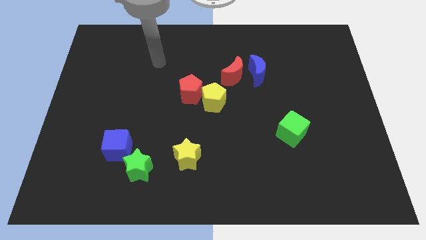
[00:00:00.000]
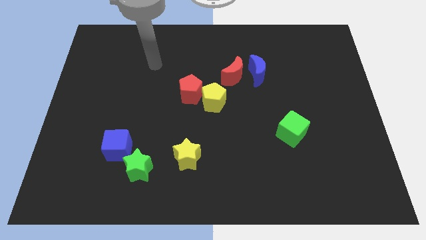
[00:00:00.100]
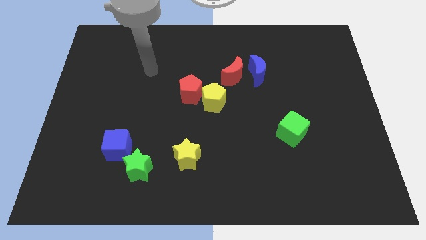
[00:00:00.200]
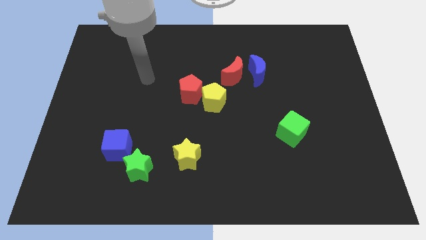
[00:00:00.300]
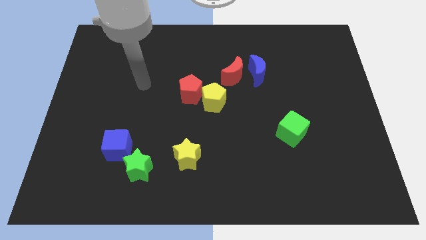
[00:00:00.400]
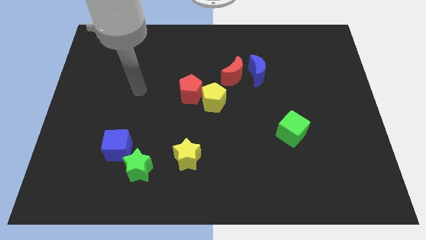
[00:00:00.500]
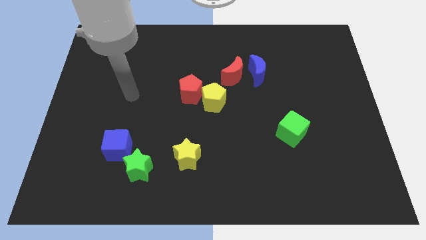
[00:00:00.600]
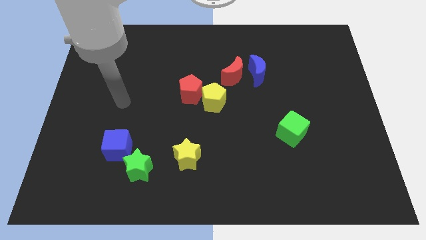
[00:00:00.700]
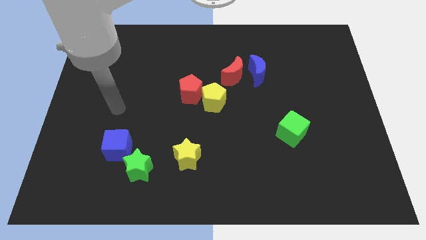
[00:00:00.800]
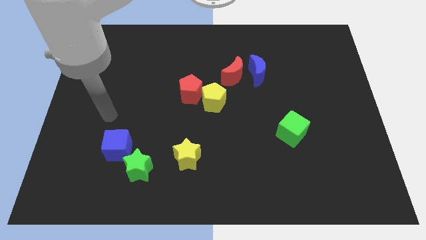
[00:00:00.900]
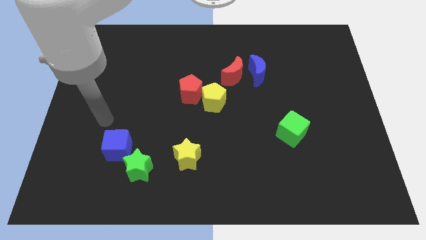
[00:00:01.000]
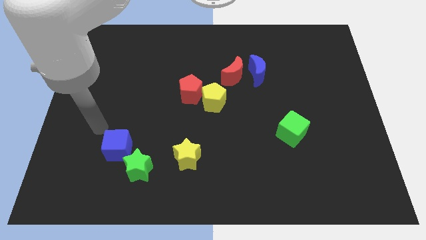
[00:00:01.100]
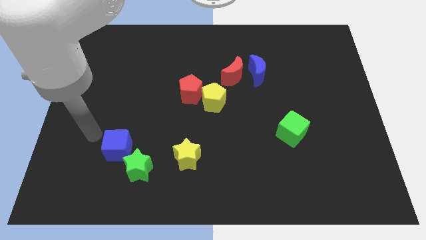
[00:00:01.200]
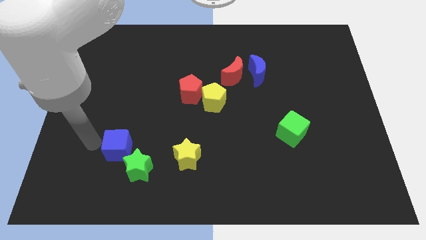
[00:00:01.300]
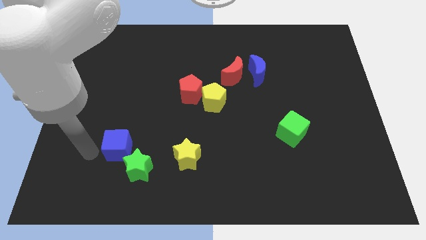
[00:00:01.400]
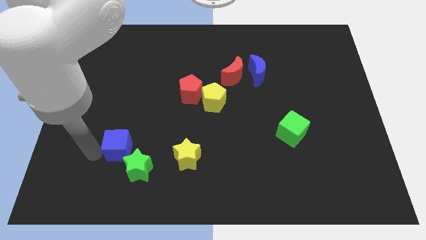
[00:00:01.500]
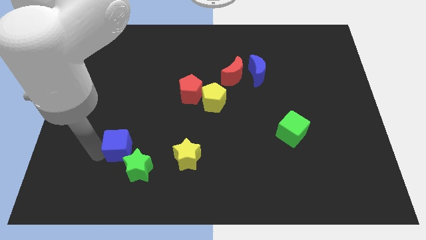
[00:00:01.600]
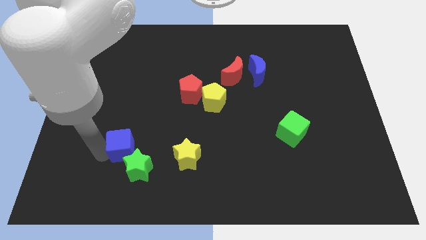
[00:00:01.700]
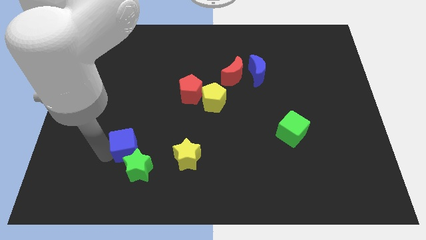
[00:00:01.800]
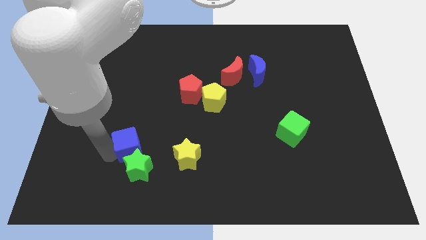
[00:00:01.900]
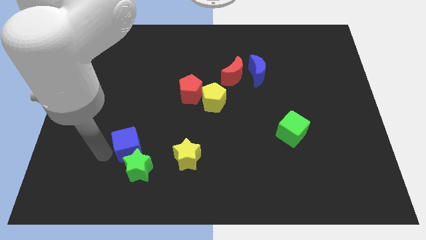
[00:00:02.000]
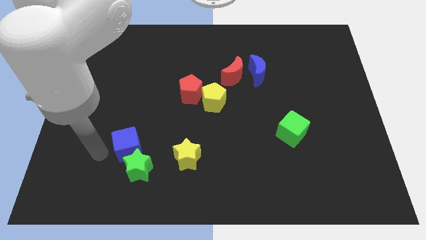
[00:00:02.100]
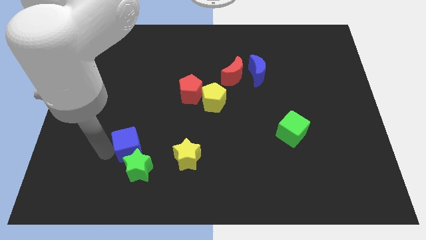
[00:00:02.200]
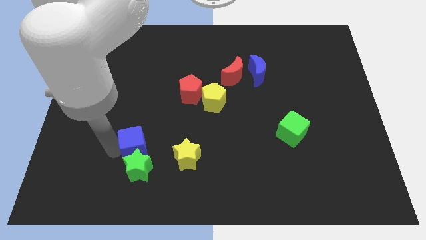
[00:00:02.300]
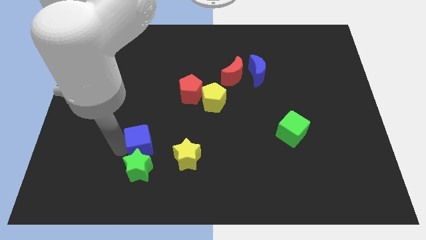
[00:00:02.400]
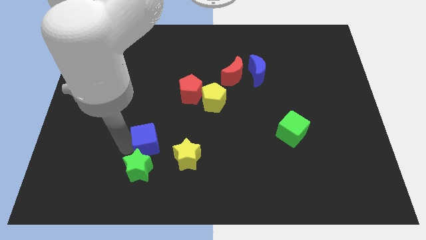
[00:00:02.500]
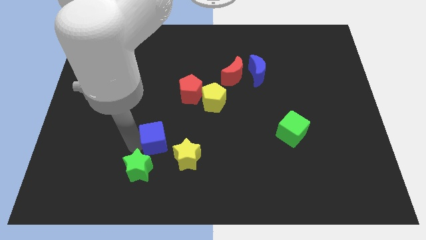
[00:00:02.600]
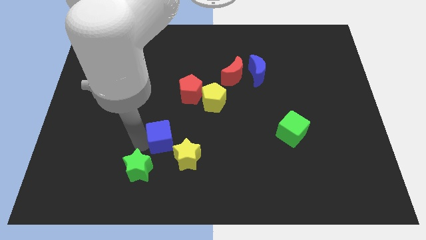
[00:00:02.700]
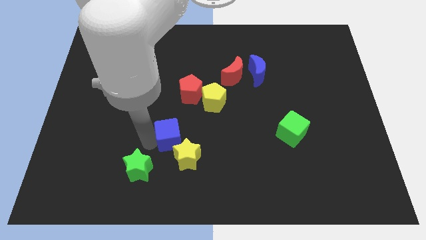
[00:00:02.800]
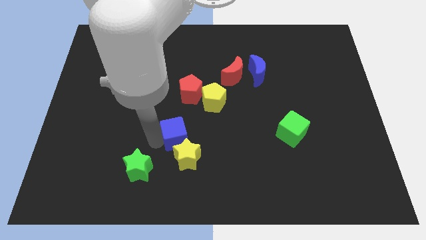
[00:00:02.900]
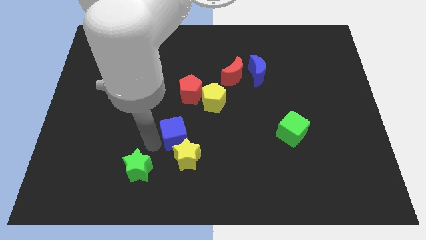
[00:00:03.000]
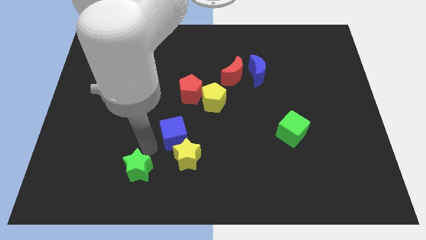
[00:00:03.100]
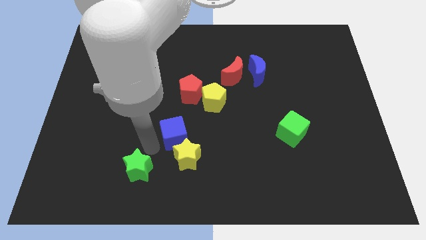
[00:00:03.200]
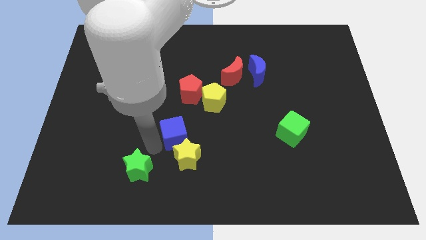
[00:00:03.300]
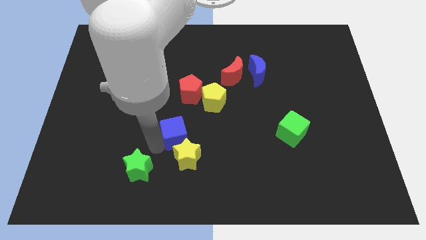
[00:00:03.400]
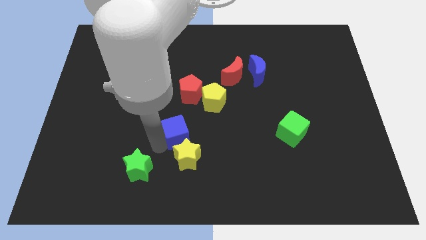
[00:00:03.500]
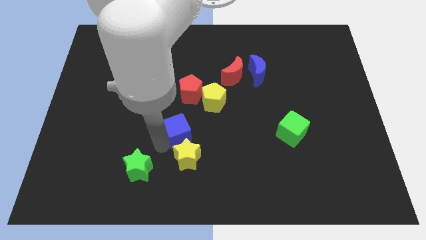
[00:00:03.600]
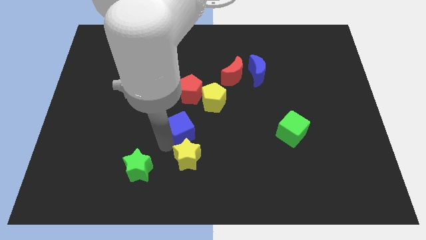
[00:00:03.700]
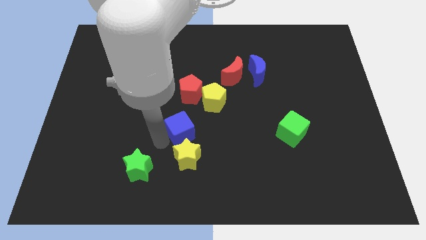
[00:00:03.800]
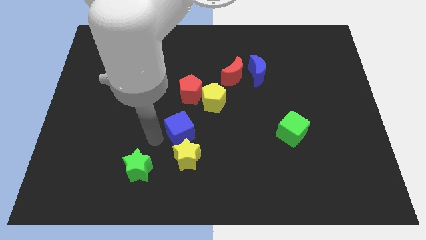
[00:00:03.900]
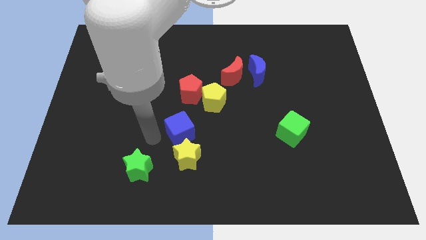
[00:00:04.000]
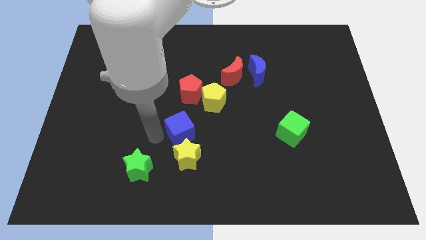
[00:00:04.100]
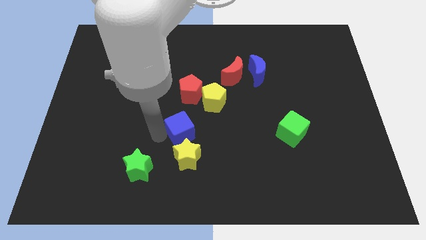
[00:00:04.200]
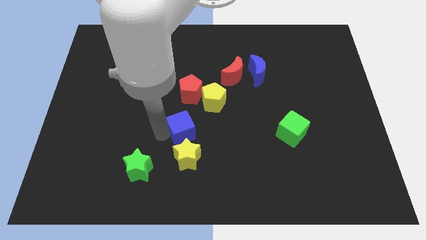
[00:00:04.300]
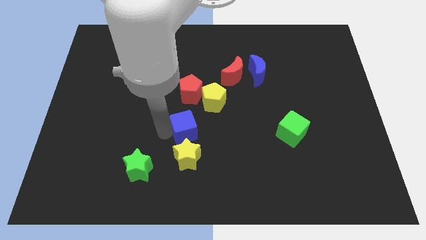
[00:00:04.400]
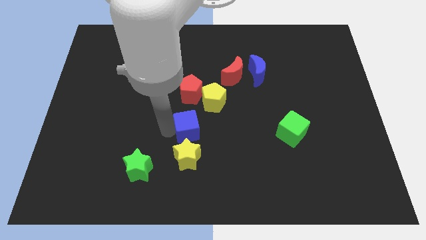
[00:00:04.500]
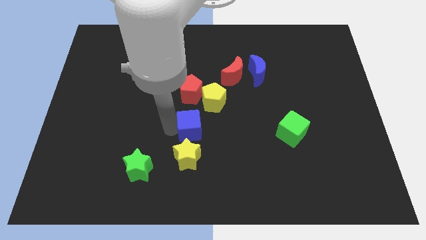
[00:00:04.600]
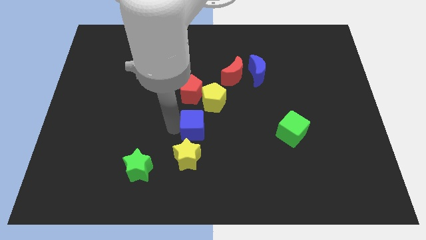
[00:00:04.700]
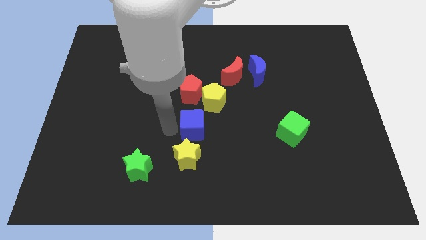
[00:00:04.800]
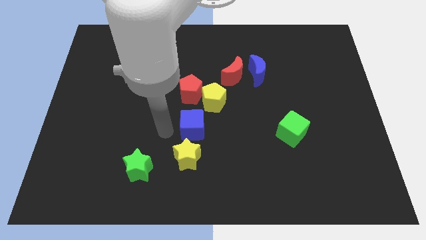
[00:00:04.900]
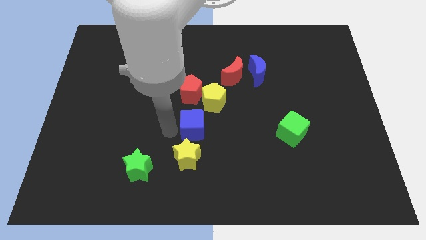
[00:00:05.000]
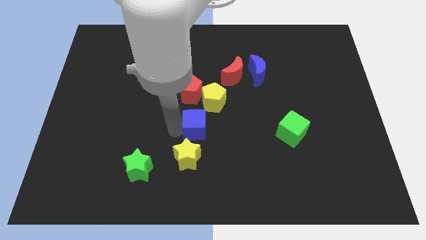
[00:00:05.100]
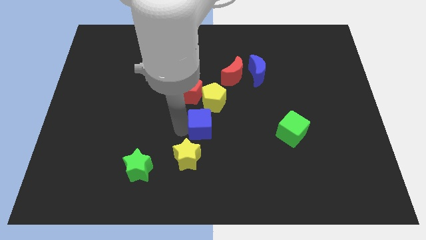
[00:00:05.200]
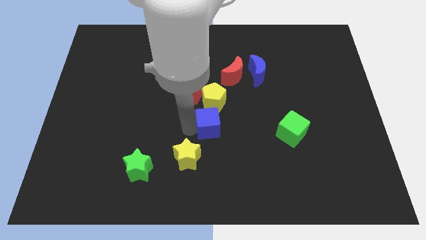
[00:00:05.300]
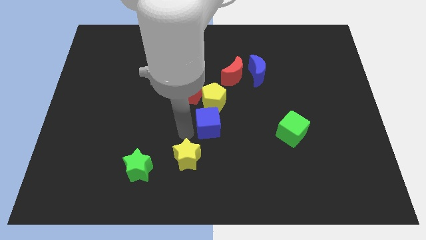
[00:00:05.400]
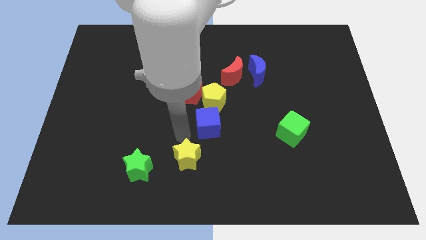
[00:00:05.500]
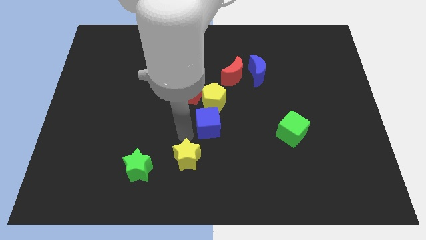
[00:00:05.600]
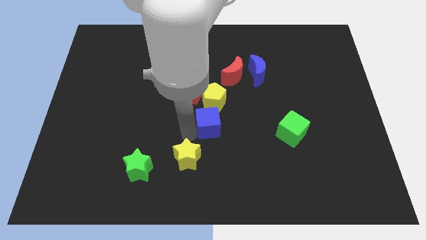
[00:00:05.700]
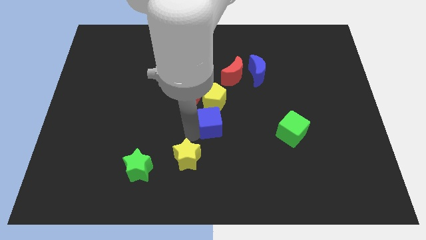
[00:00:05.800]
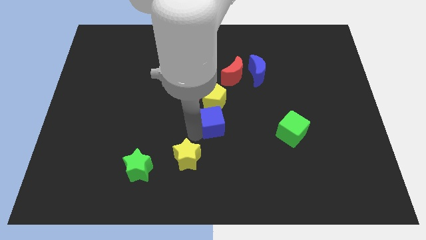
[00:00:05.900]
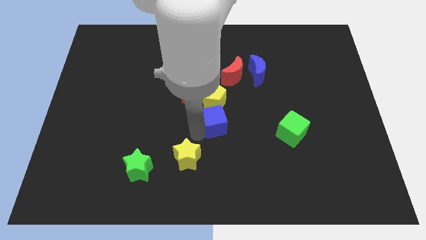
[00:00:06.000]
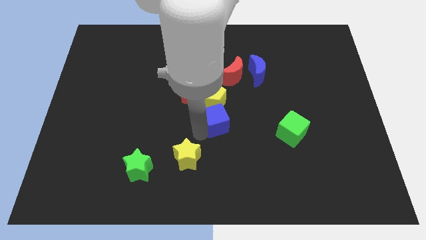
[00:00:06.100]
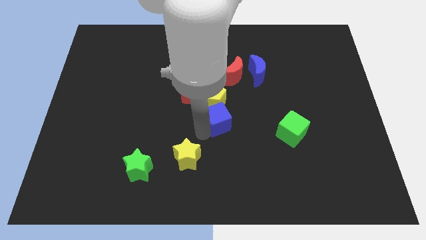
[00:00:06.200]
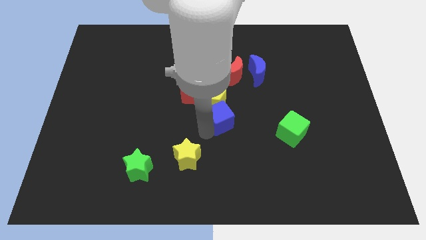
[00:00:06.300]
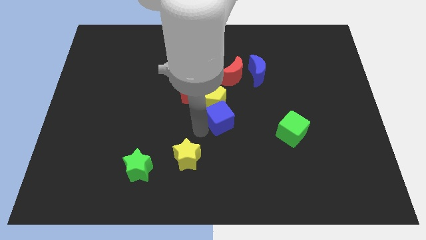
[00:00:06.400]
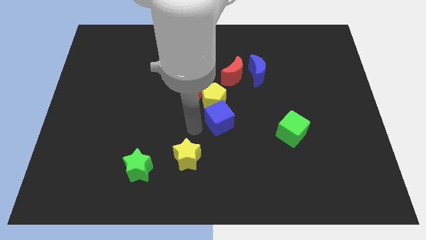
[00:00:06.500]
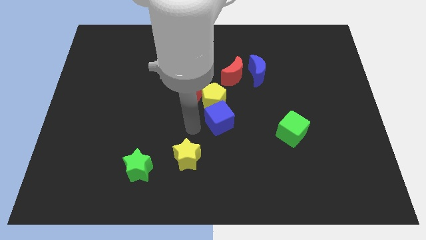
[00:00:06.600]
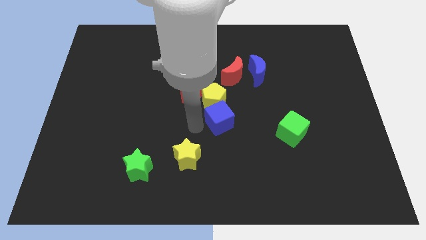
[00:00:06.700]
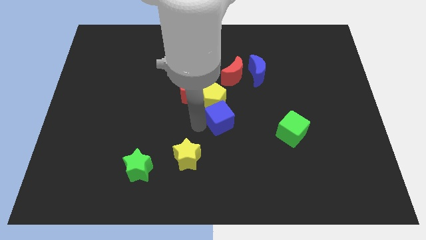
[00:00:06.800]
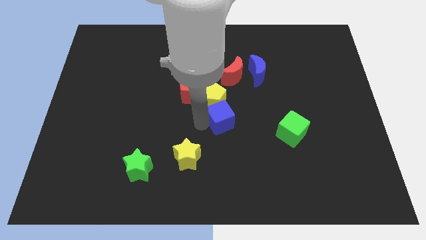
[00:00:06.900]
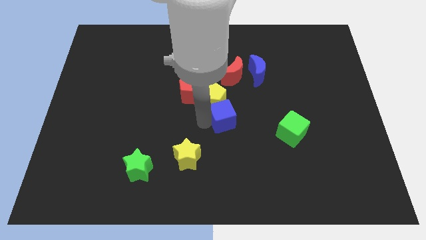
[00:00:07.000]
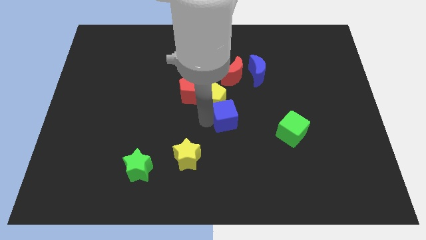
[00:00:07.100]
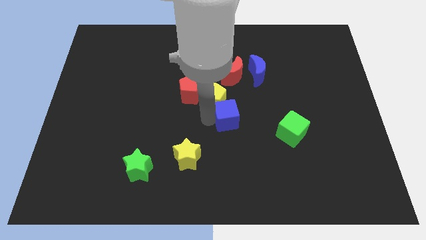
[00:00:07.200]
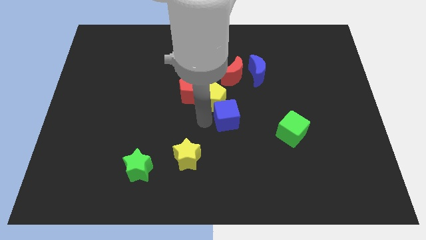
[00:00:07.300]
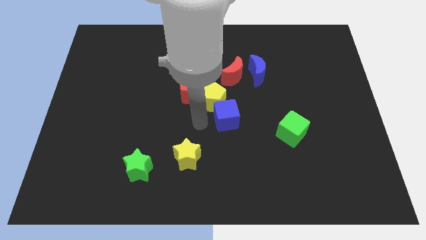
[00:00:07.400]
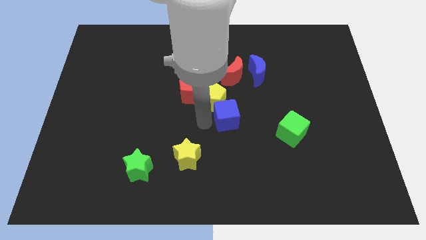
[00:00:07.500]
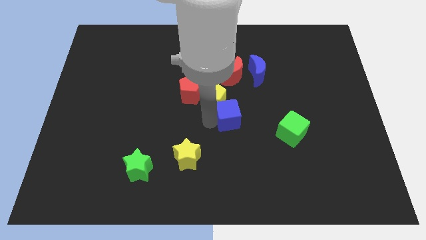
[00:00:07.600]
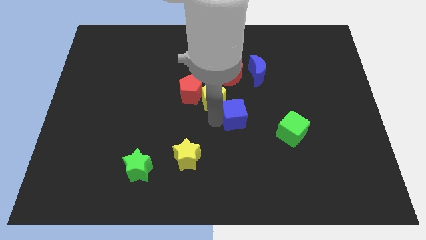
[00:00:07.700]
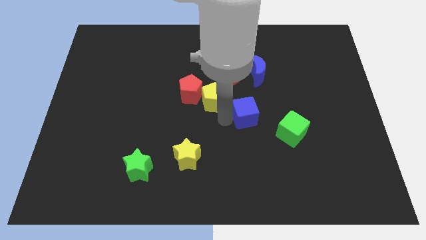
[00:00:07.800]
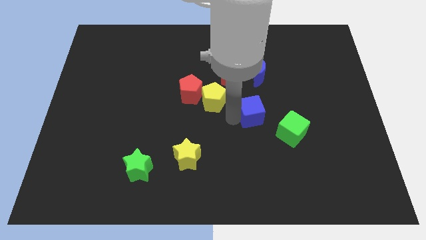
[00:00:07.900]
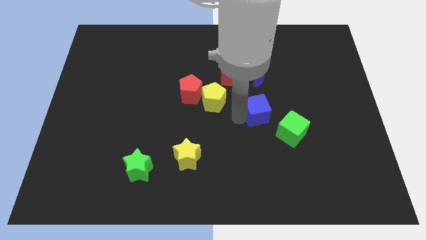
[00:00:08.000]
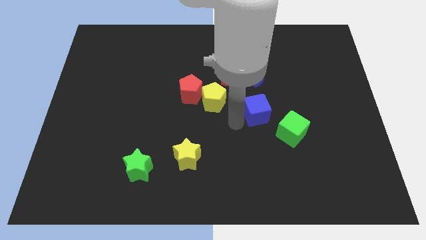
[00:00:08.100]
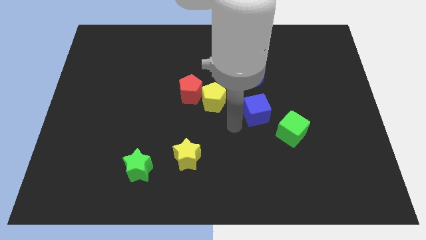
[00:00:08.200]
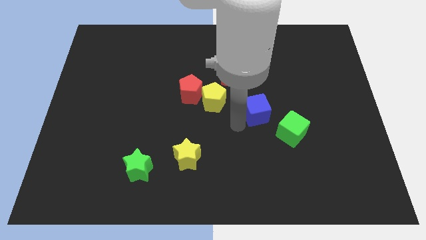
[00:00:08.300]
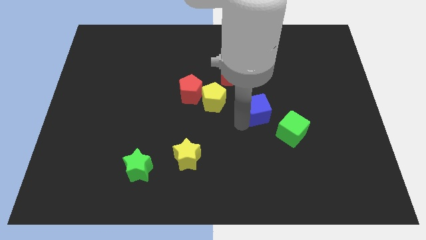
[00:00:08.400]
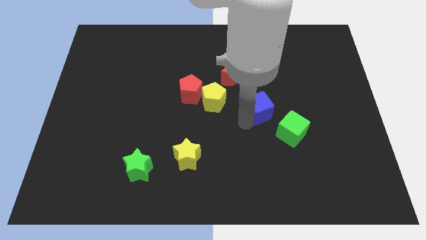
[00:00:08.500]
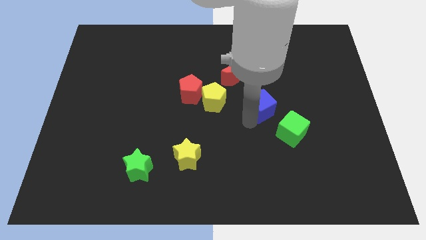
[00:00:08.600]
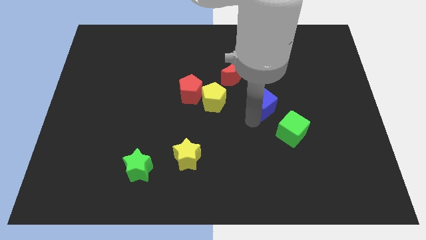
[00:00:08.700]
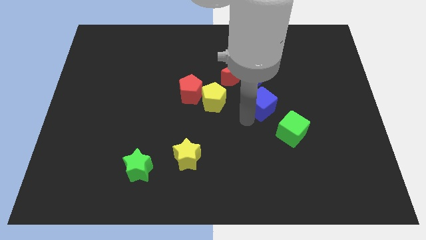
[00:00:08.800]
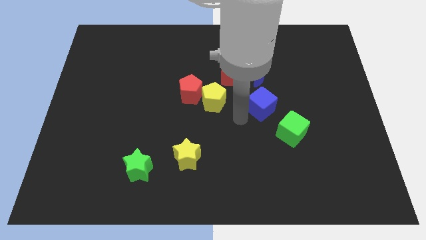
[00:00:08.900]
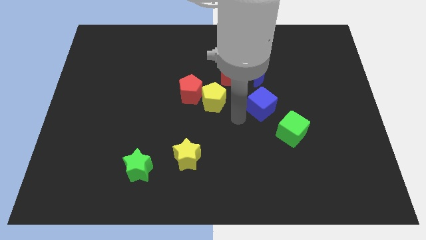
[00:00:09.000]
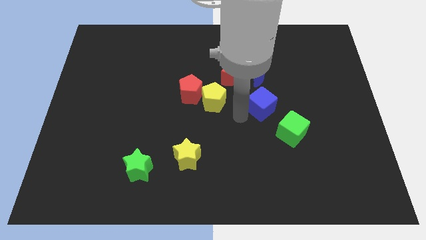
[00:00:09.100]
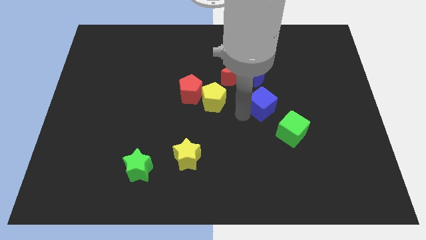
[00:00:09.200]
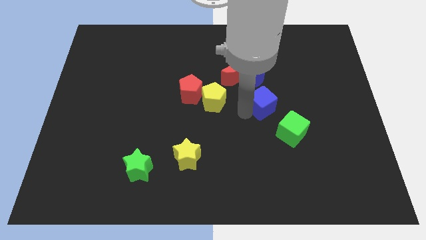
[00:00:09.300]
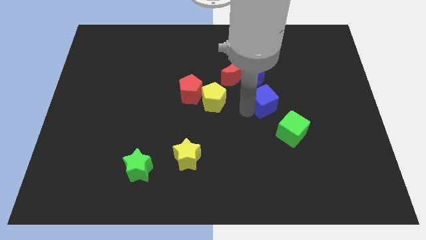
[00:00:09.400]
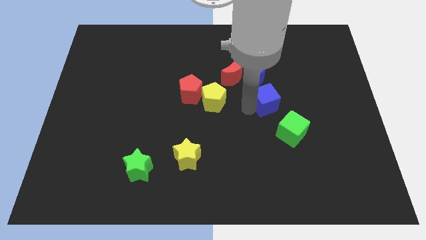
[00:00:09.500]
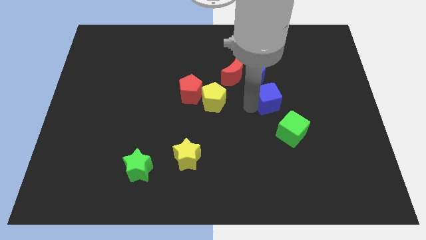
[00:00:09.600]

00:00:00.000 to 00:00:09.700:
slide the blue cube to the top of the green cube
